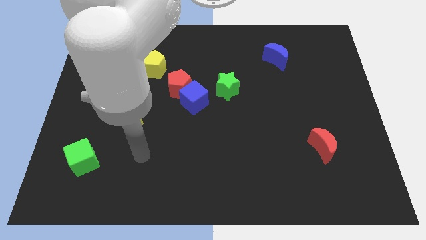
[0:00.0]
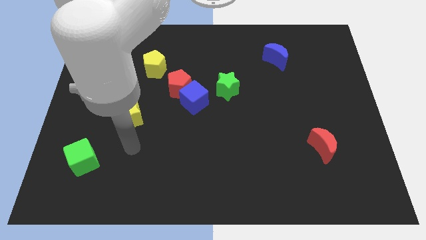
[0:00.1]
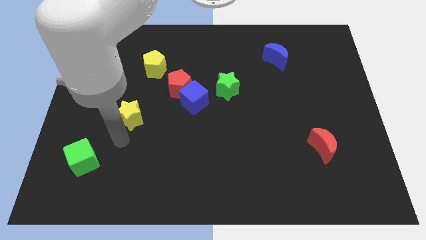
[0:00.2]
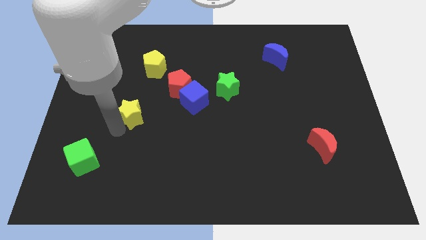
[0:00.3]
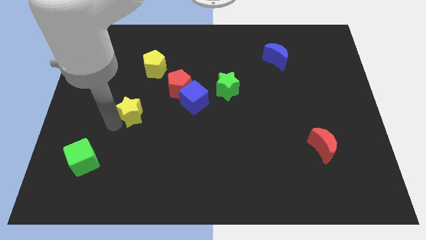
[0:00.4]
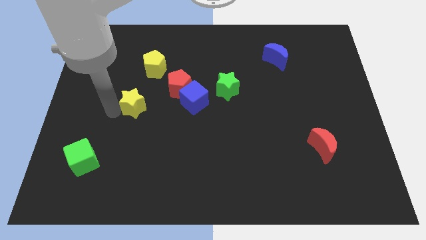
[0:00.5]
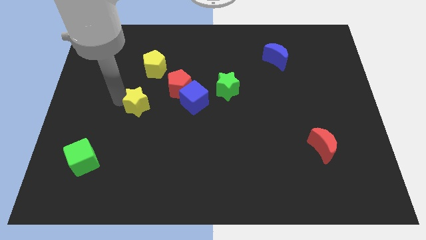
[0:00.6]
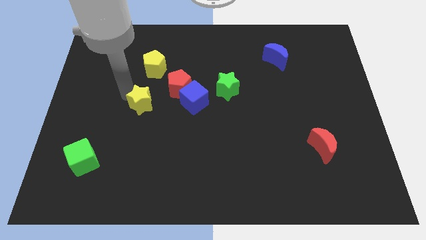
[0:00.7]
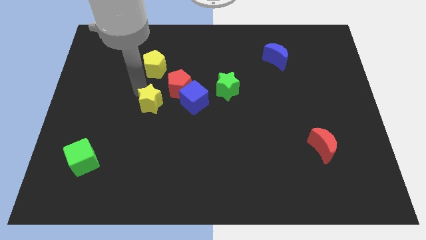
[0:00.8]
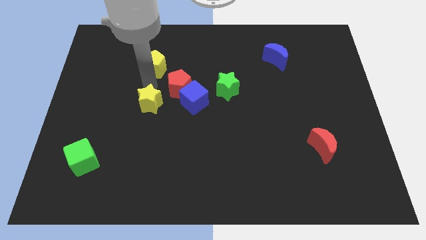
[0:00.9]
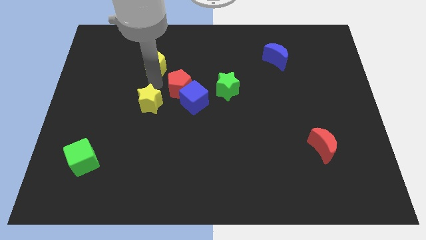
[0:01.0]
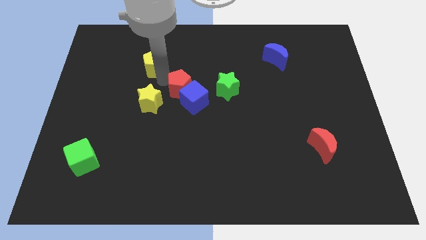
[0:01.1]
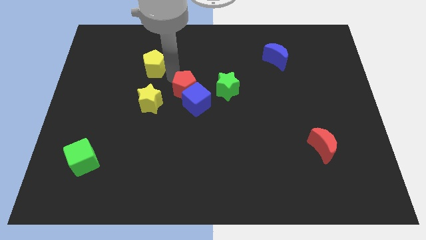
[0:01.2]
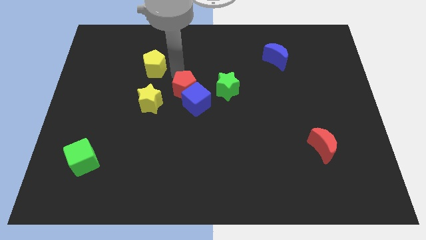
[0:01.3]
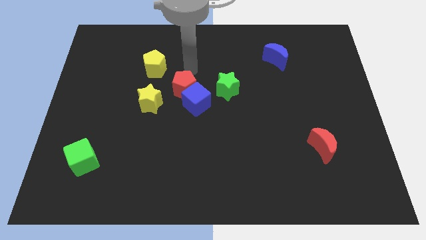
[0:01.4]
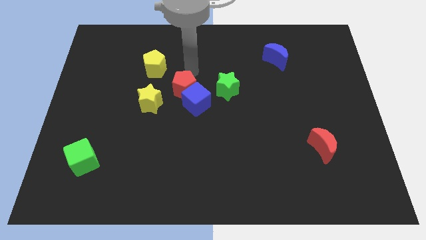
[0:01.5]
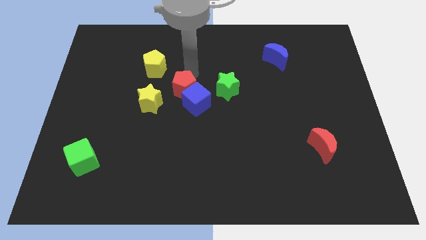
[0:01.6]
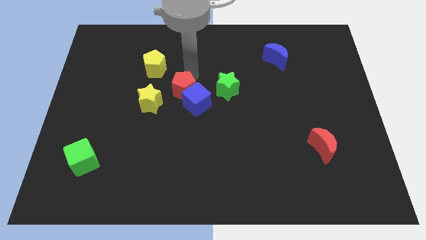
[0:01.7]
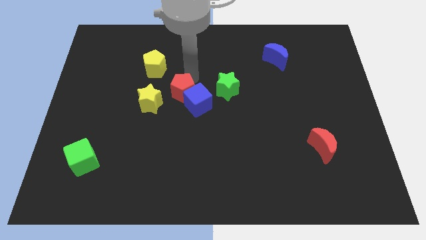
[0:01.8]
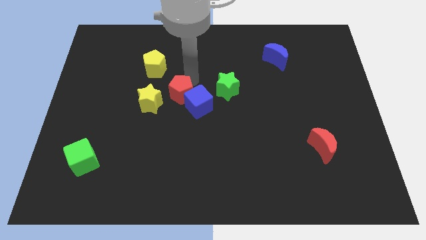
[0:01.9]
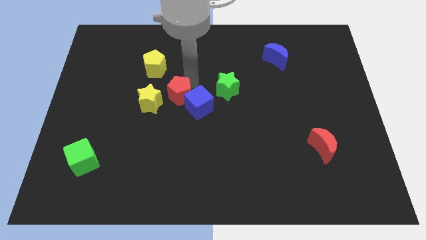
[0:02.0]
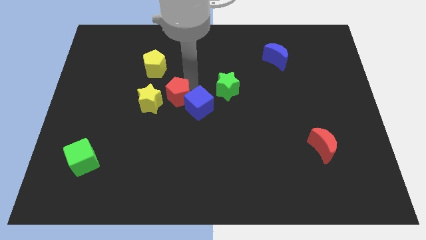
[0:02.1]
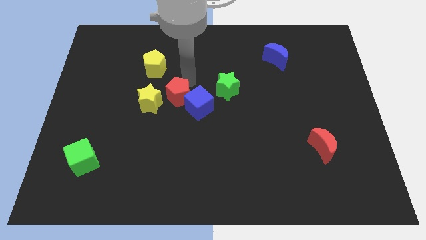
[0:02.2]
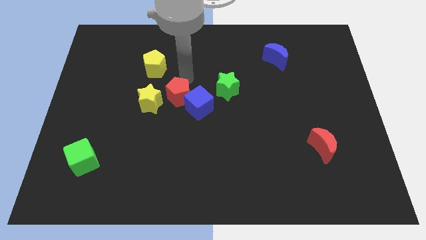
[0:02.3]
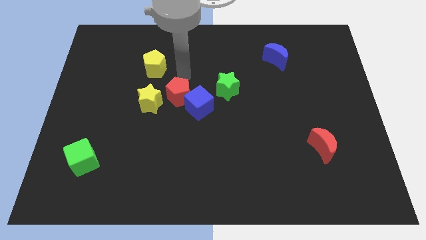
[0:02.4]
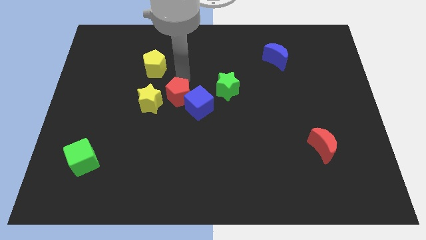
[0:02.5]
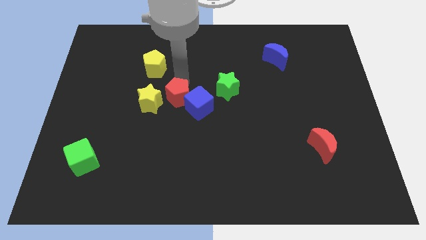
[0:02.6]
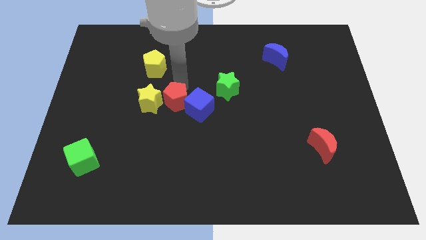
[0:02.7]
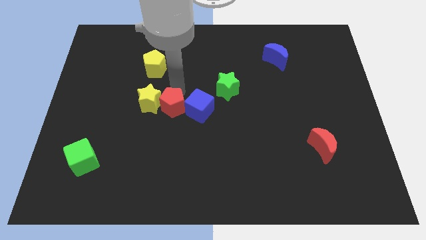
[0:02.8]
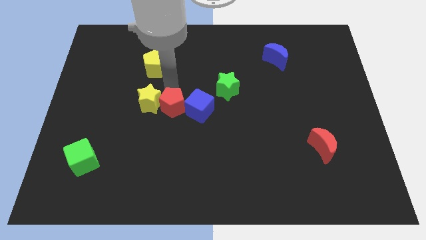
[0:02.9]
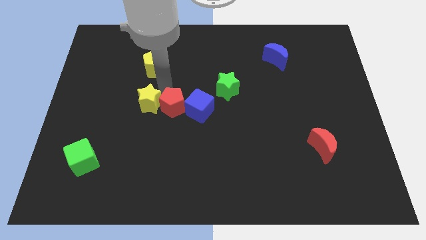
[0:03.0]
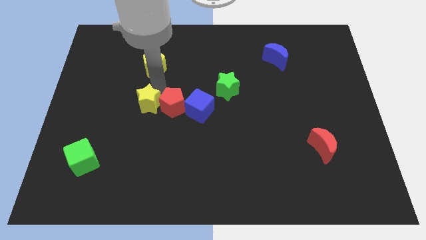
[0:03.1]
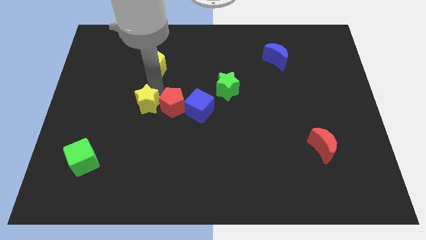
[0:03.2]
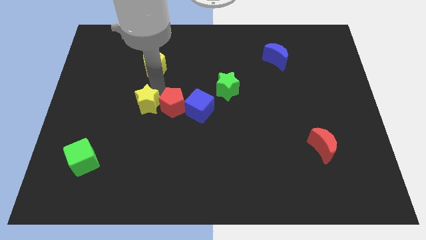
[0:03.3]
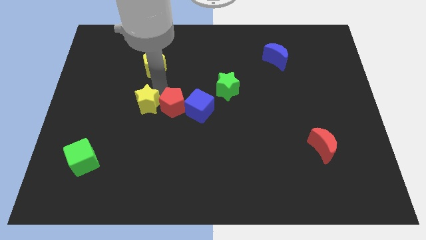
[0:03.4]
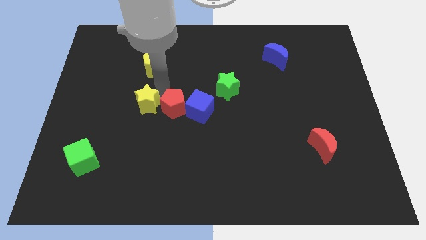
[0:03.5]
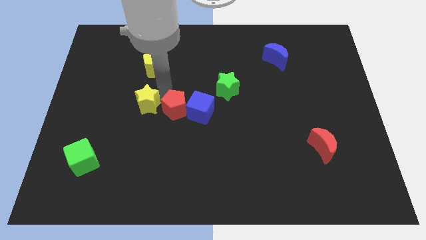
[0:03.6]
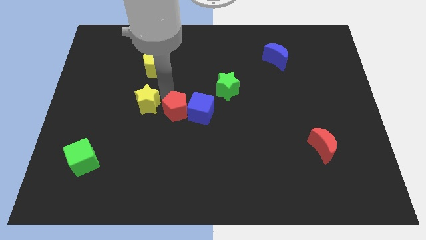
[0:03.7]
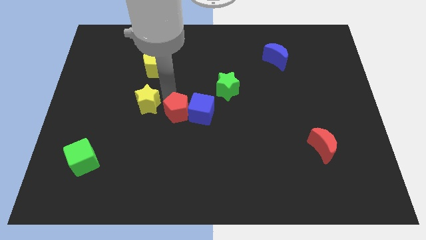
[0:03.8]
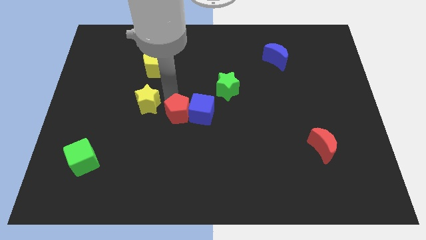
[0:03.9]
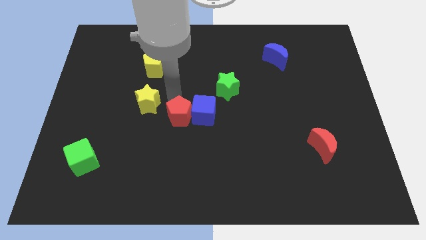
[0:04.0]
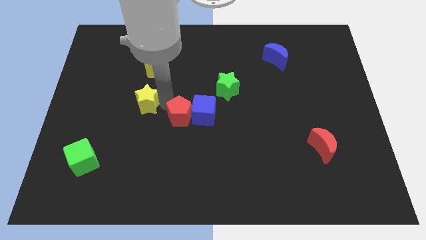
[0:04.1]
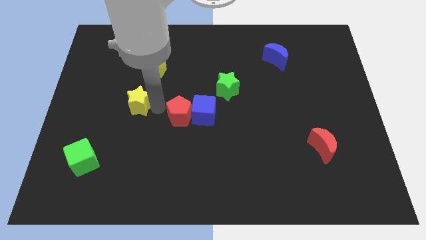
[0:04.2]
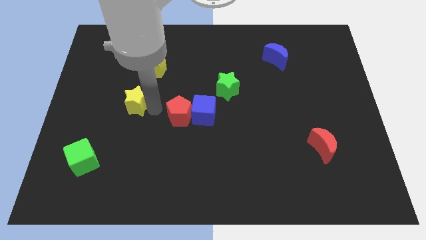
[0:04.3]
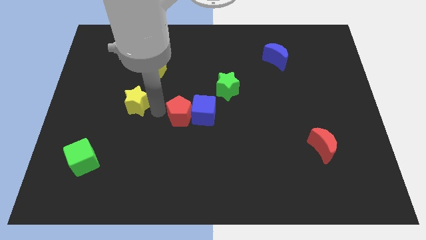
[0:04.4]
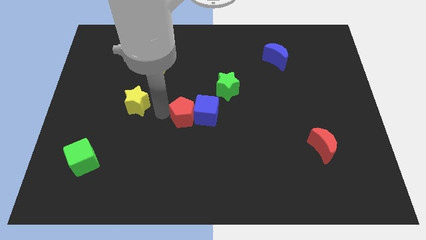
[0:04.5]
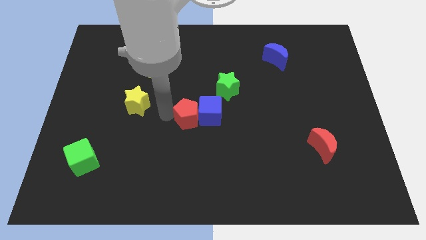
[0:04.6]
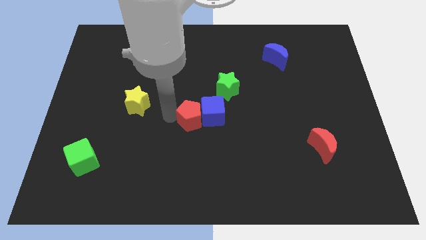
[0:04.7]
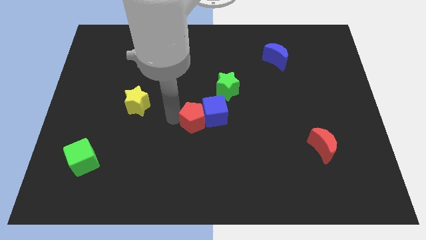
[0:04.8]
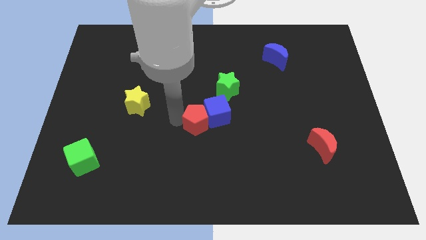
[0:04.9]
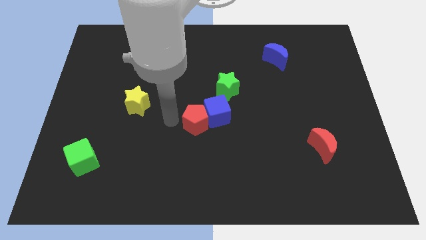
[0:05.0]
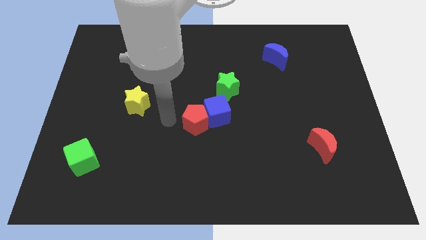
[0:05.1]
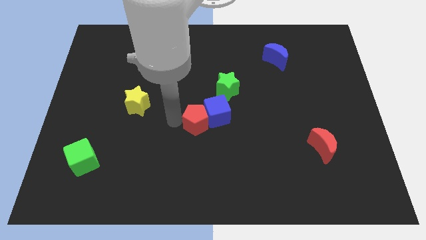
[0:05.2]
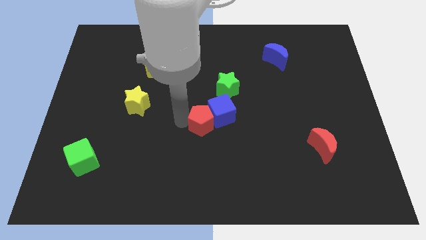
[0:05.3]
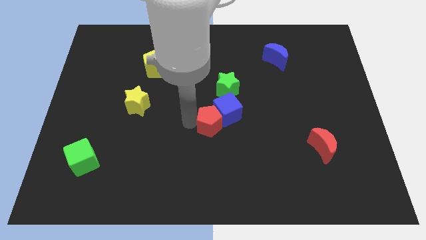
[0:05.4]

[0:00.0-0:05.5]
put the red pentagon to the bottom side of the green star

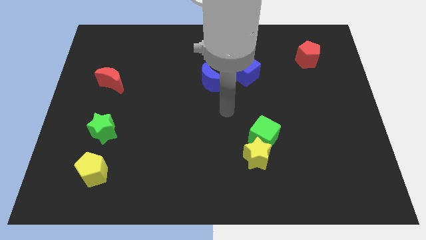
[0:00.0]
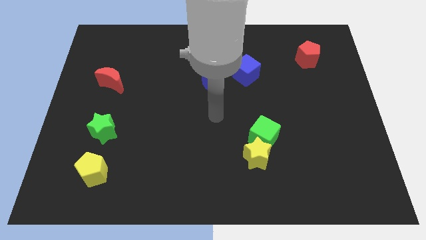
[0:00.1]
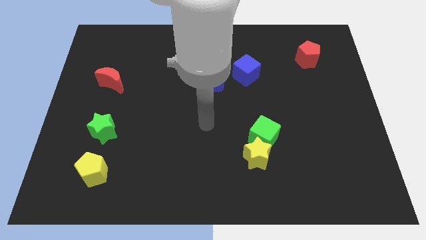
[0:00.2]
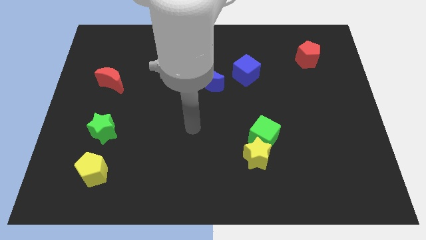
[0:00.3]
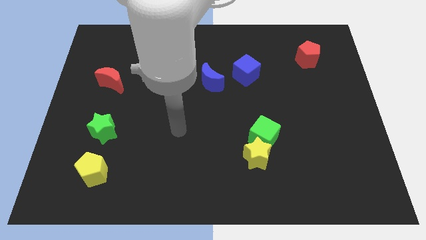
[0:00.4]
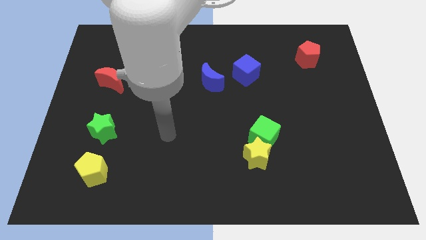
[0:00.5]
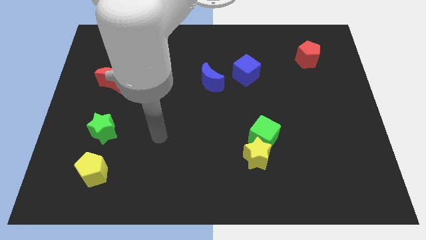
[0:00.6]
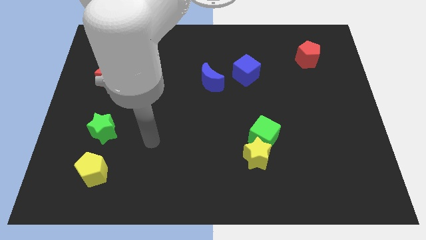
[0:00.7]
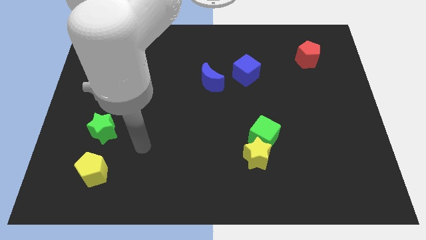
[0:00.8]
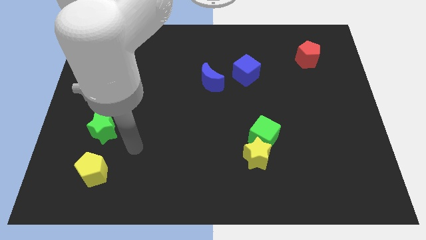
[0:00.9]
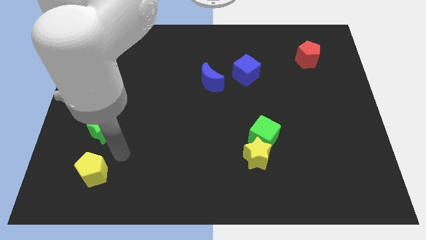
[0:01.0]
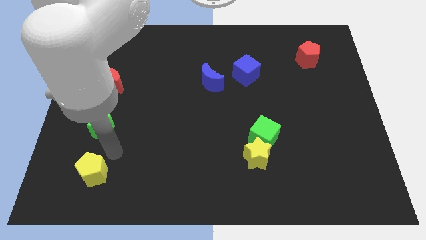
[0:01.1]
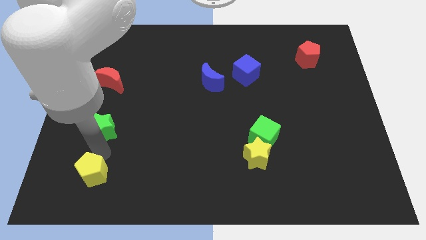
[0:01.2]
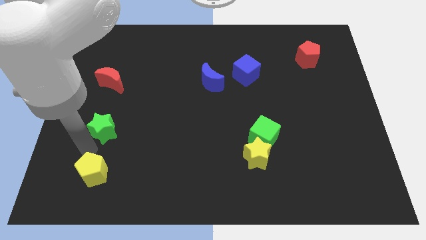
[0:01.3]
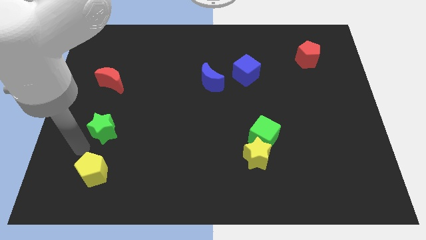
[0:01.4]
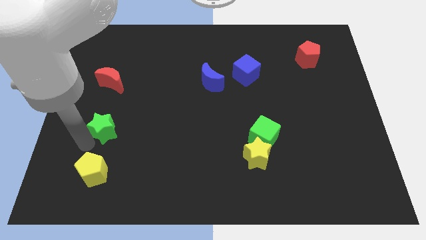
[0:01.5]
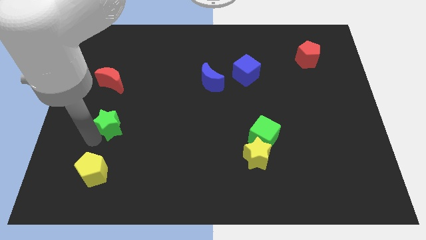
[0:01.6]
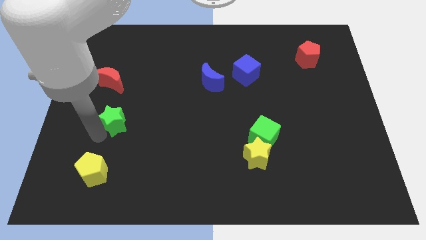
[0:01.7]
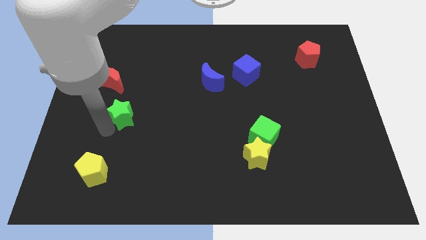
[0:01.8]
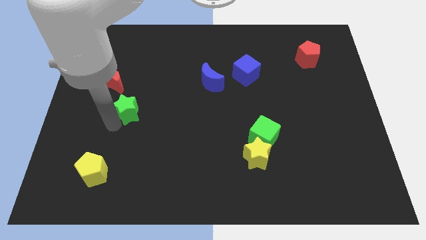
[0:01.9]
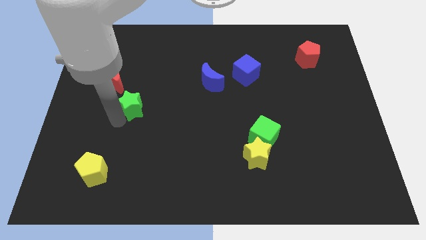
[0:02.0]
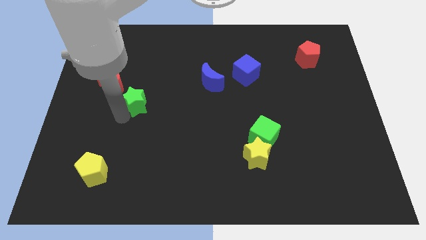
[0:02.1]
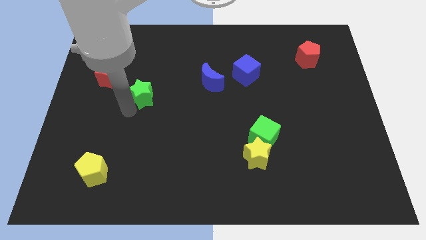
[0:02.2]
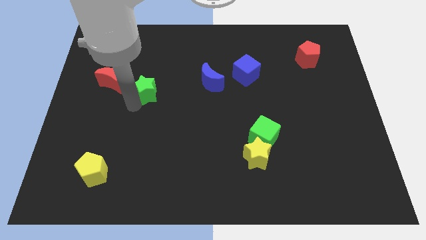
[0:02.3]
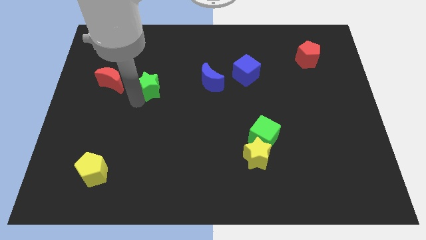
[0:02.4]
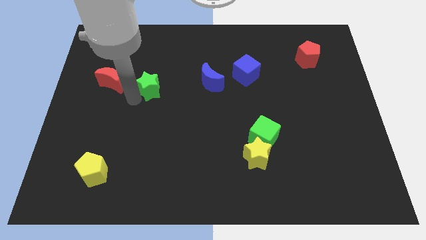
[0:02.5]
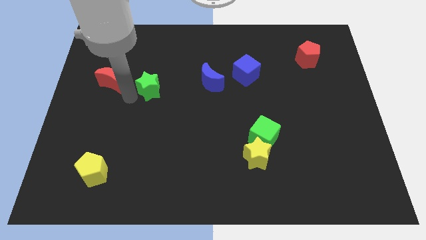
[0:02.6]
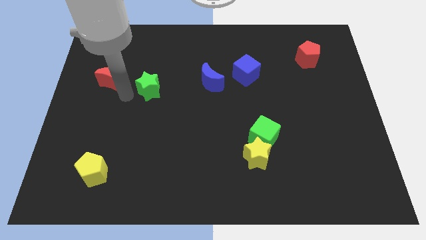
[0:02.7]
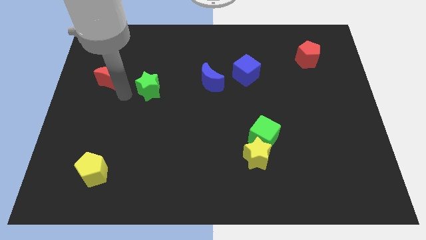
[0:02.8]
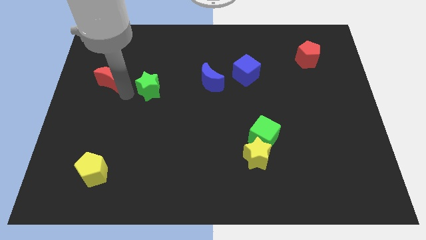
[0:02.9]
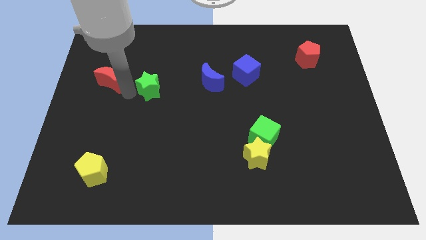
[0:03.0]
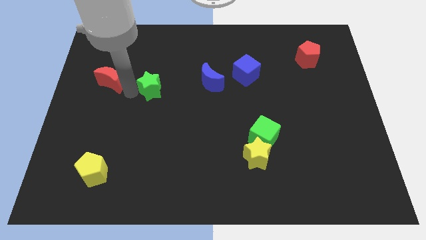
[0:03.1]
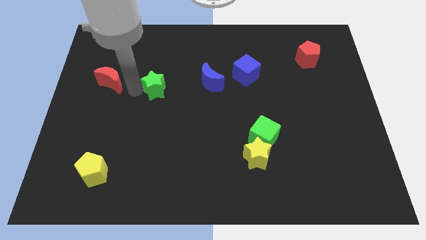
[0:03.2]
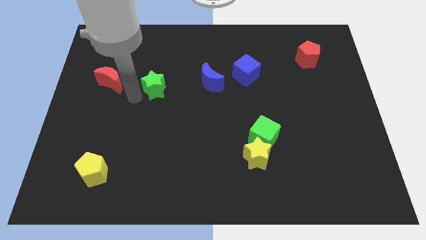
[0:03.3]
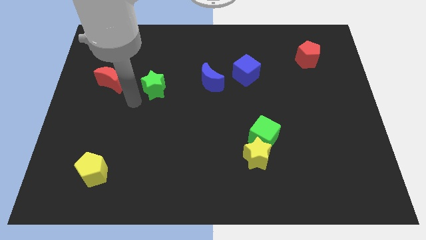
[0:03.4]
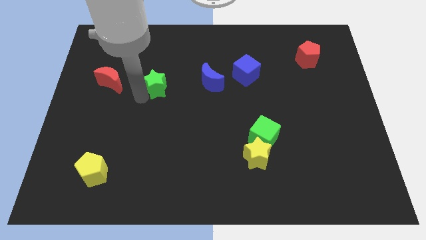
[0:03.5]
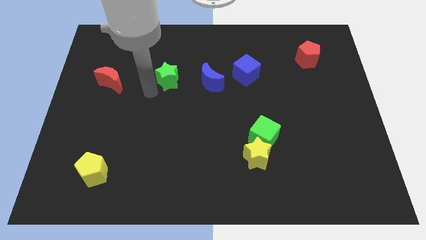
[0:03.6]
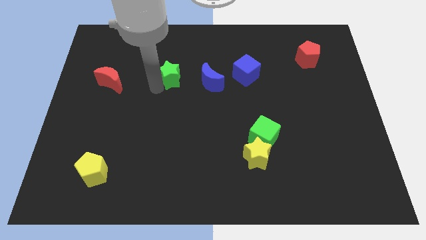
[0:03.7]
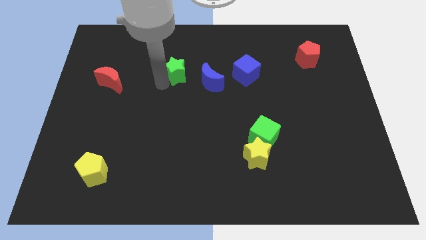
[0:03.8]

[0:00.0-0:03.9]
slide the green star to the top left of the blue moon
